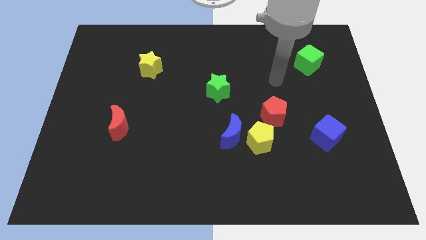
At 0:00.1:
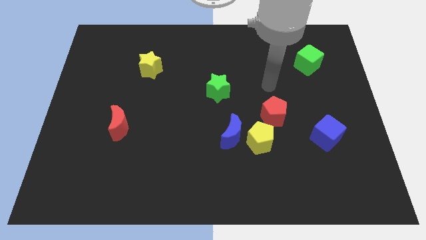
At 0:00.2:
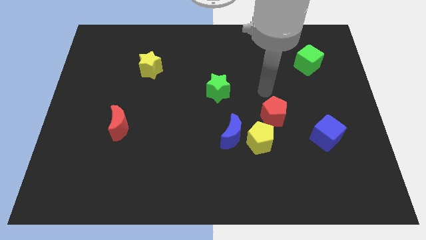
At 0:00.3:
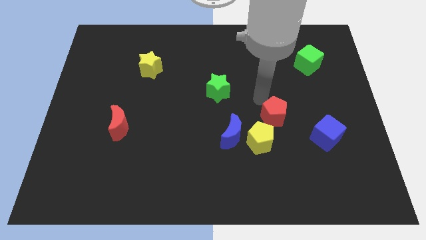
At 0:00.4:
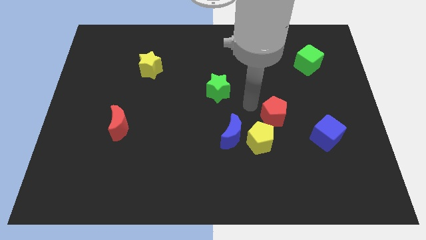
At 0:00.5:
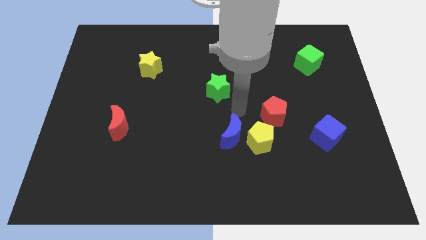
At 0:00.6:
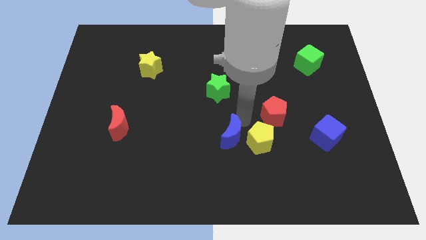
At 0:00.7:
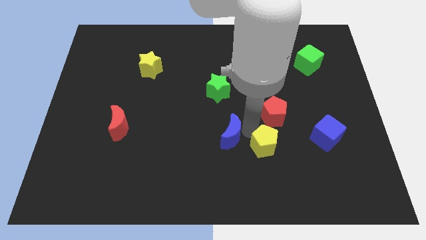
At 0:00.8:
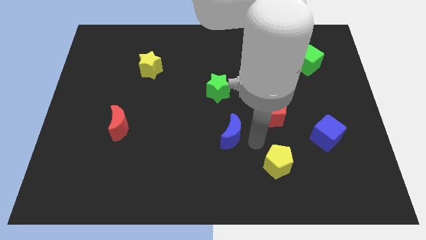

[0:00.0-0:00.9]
separate the blue moon from the yellow pentagon

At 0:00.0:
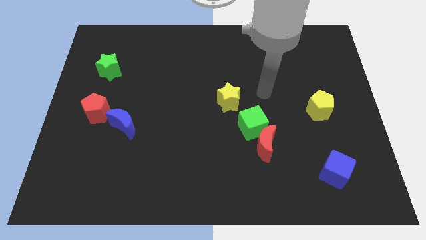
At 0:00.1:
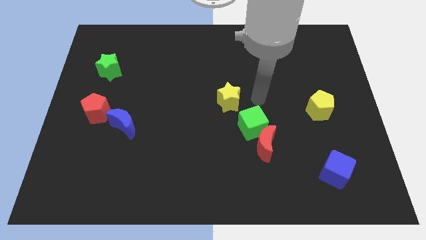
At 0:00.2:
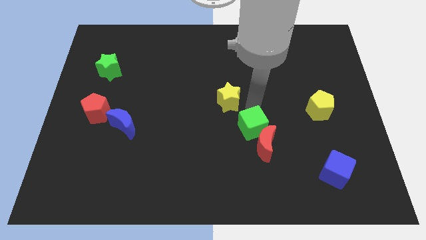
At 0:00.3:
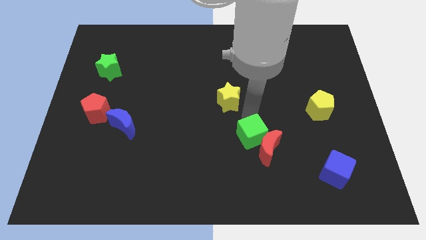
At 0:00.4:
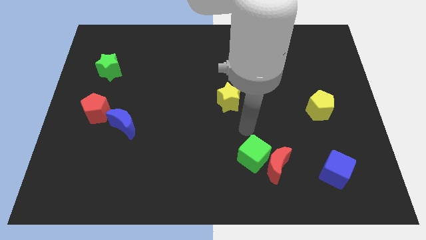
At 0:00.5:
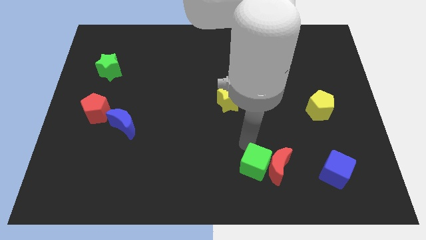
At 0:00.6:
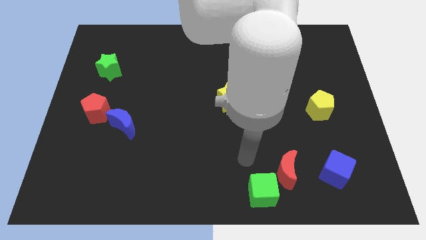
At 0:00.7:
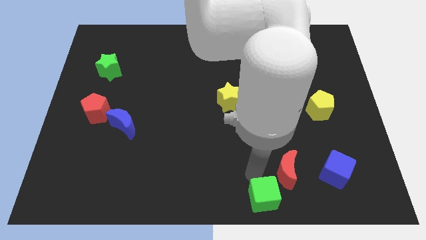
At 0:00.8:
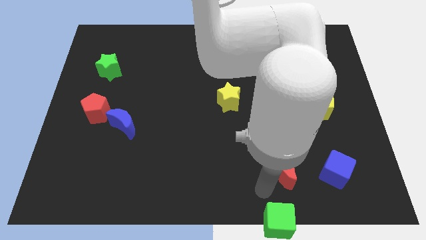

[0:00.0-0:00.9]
move the red moon away from the green cube

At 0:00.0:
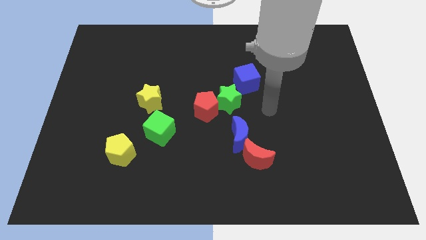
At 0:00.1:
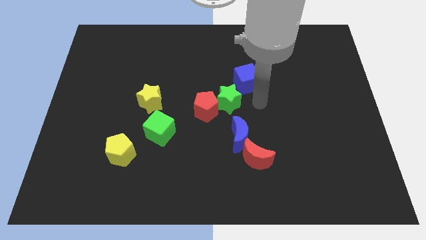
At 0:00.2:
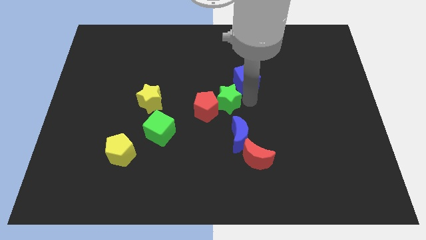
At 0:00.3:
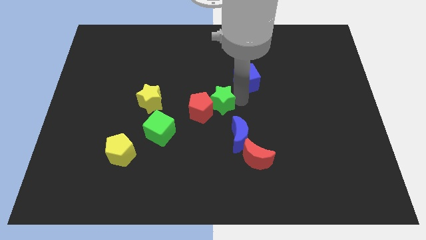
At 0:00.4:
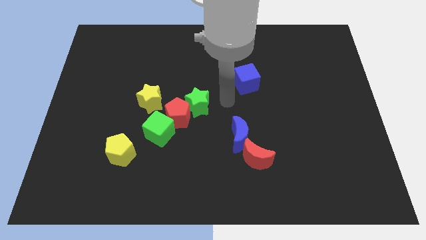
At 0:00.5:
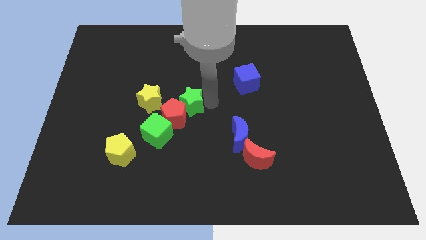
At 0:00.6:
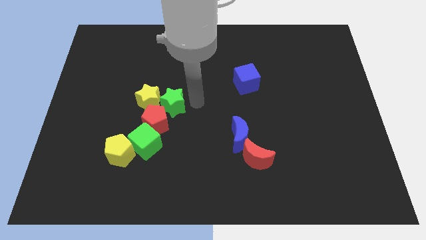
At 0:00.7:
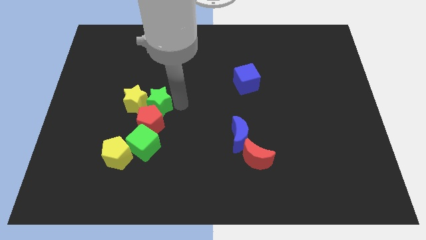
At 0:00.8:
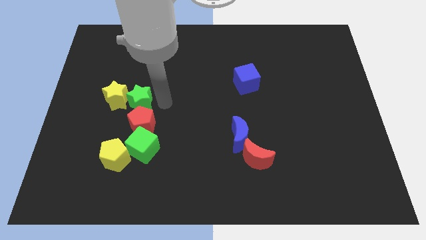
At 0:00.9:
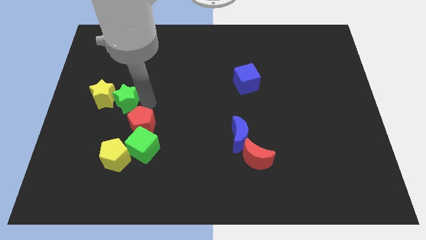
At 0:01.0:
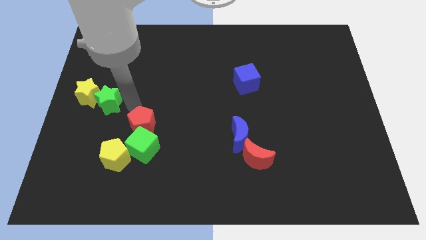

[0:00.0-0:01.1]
pull the red pentagon apart from the green star

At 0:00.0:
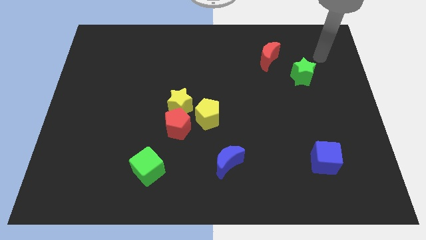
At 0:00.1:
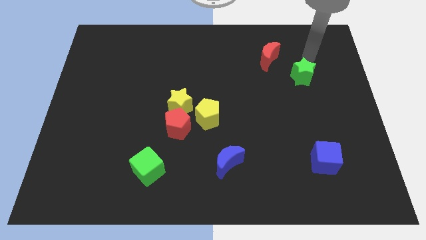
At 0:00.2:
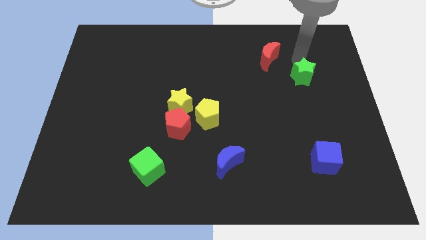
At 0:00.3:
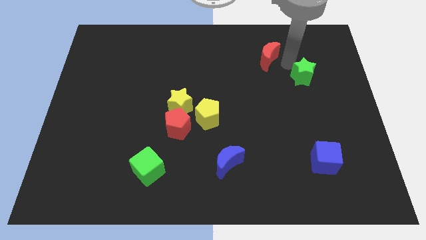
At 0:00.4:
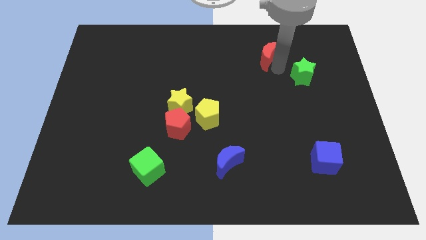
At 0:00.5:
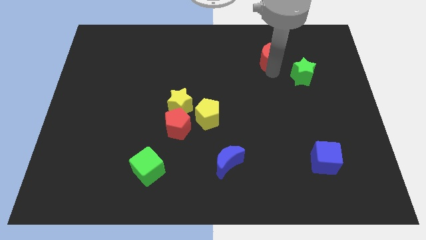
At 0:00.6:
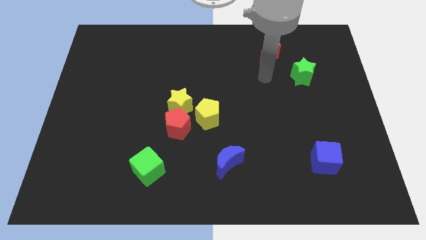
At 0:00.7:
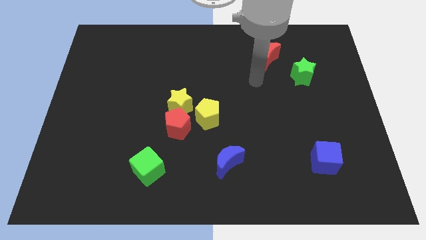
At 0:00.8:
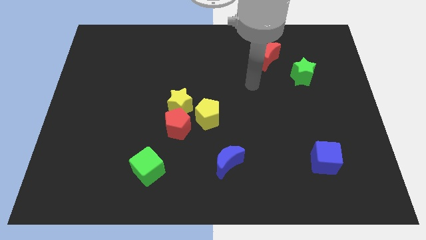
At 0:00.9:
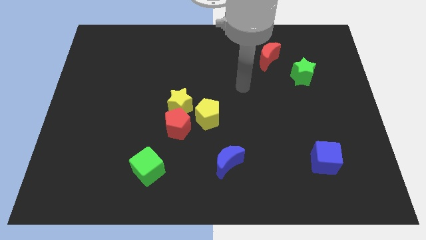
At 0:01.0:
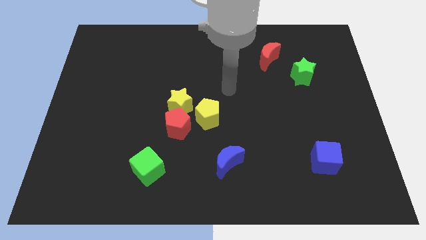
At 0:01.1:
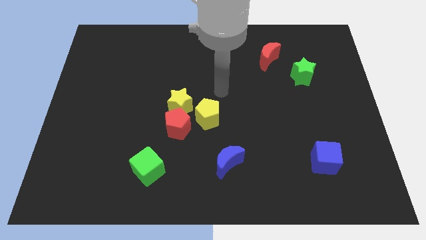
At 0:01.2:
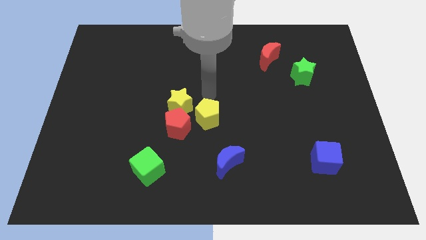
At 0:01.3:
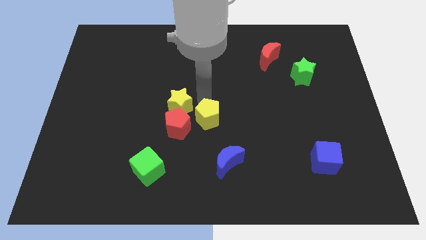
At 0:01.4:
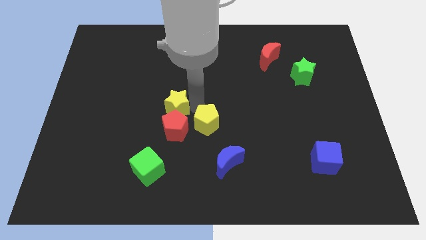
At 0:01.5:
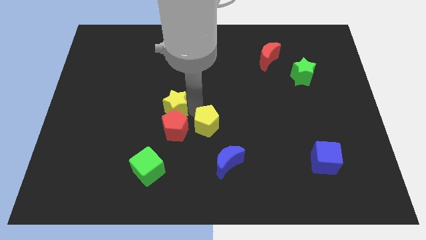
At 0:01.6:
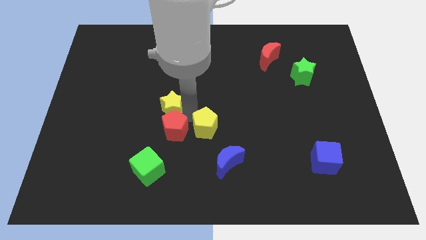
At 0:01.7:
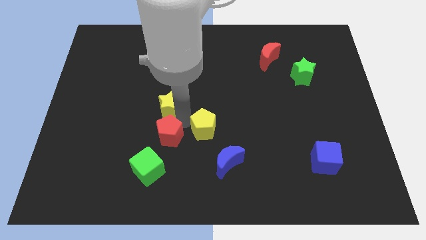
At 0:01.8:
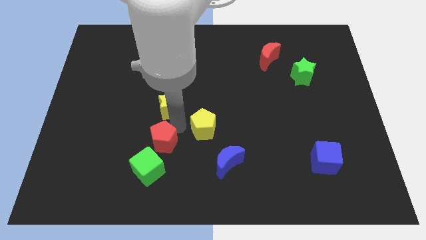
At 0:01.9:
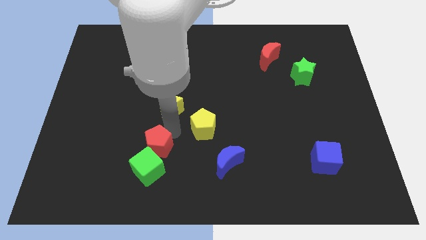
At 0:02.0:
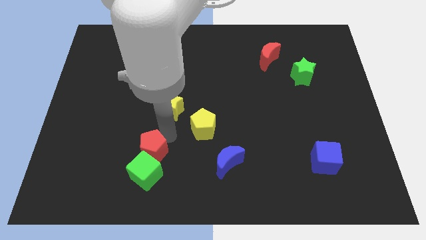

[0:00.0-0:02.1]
separate the red pentagon from the yellow star and yellow pentagon

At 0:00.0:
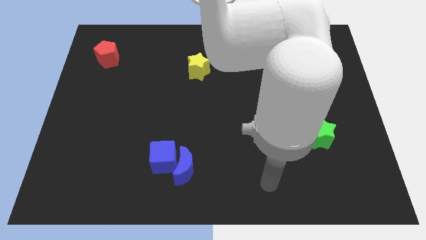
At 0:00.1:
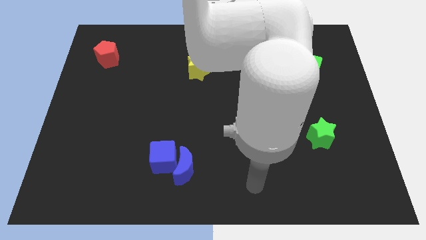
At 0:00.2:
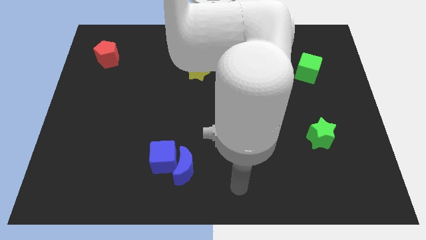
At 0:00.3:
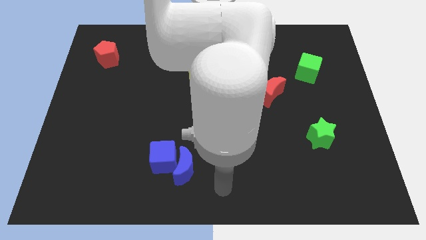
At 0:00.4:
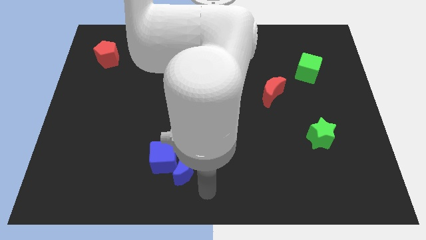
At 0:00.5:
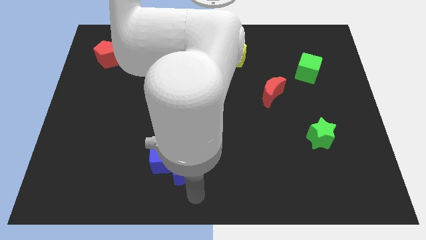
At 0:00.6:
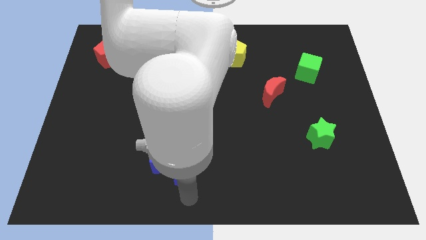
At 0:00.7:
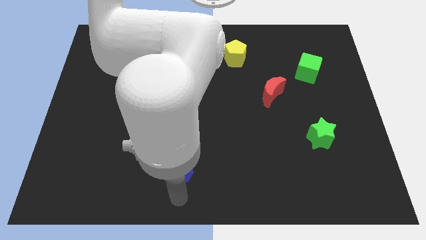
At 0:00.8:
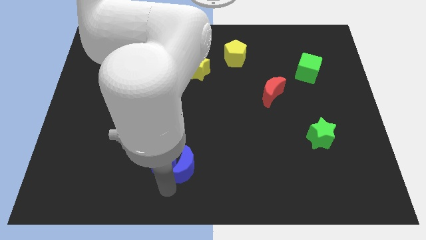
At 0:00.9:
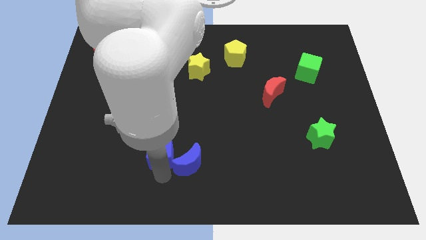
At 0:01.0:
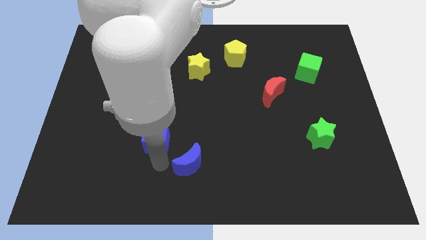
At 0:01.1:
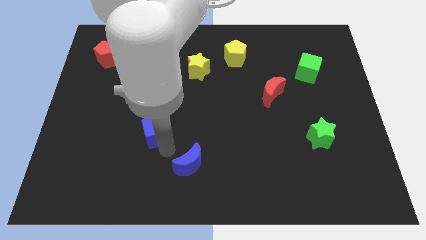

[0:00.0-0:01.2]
separate the blue moon from the blue cube

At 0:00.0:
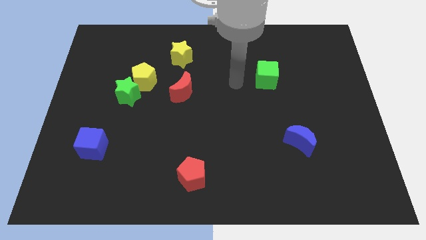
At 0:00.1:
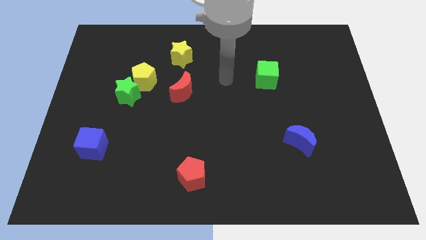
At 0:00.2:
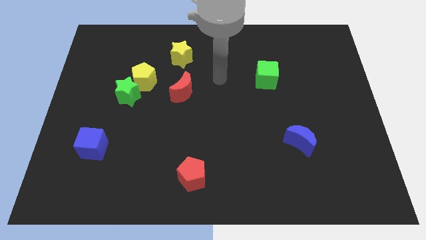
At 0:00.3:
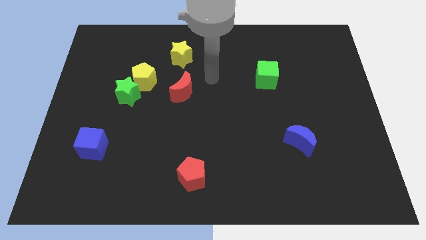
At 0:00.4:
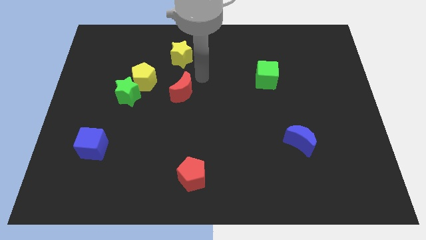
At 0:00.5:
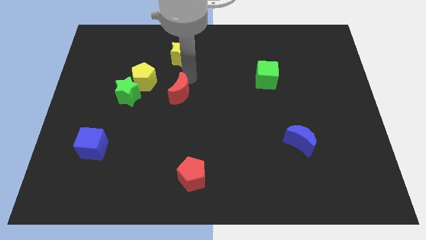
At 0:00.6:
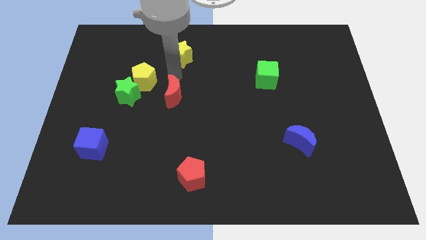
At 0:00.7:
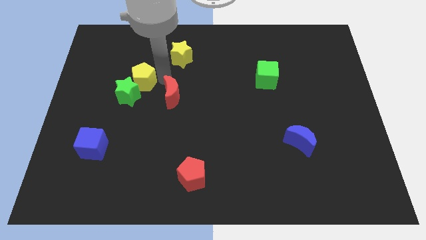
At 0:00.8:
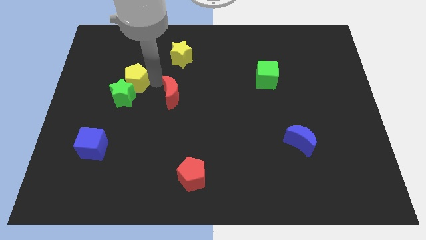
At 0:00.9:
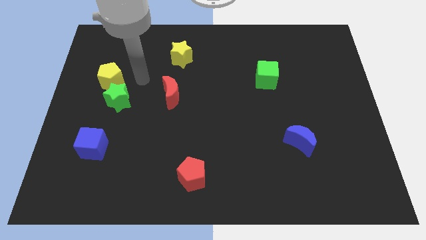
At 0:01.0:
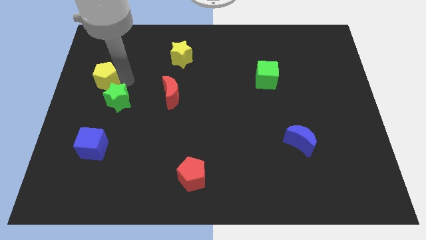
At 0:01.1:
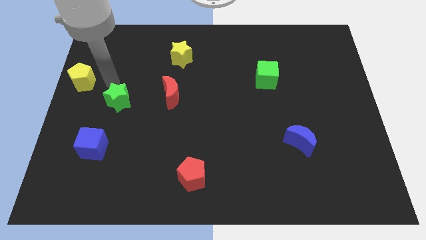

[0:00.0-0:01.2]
pull the green star apart from the yellow pentagon

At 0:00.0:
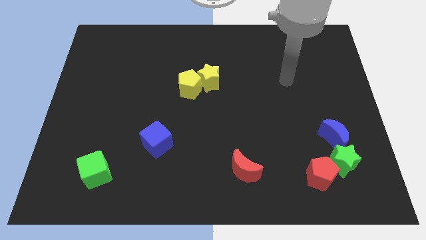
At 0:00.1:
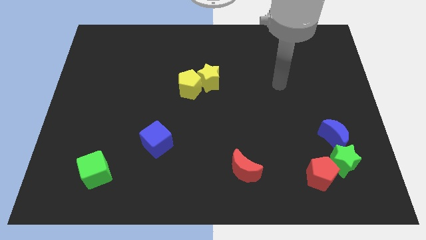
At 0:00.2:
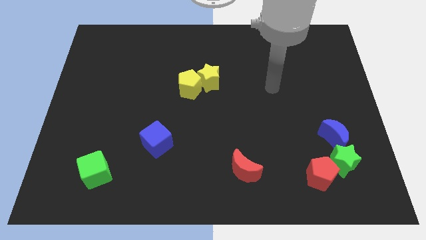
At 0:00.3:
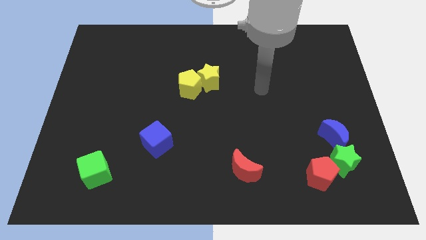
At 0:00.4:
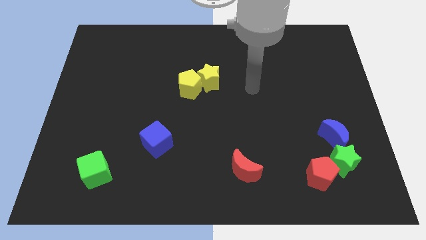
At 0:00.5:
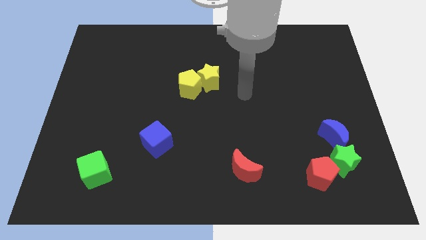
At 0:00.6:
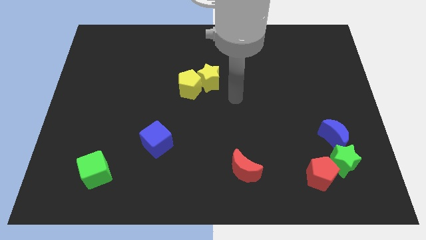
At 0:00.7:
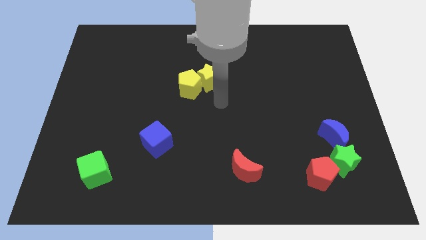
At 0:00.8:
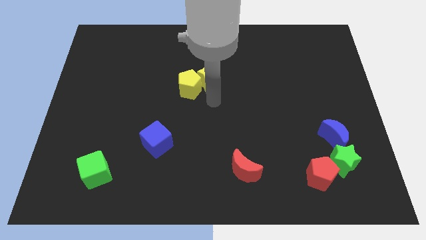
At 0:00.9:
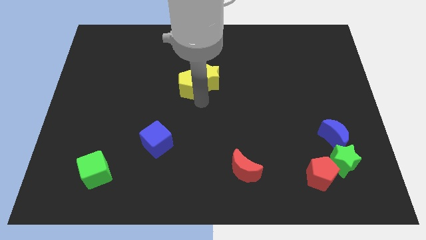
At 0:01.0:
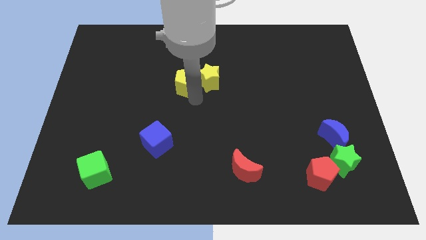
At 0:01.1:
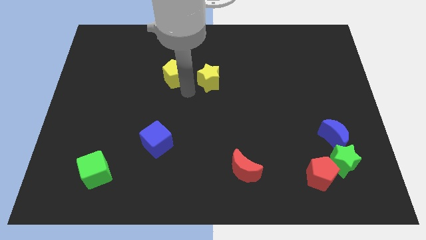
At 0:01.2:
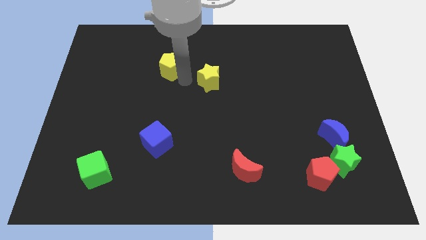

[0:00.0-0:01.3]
move the yellow star away from the yellow pentagon

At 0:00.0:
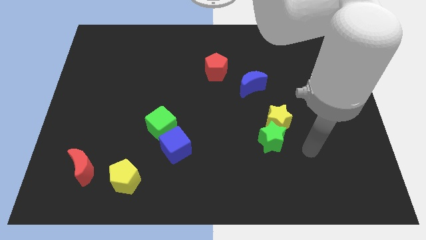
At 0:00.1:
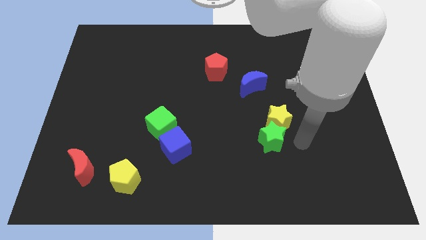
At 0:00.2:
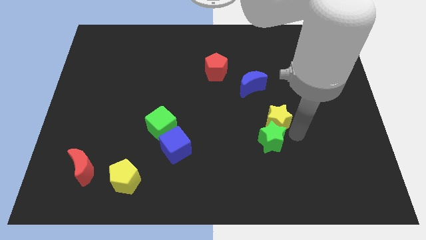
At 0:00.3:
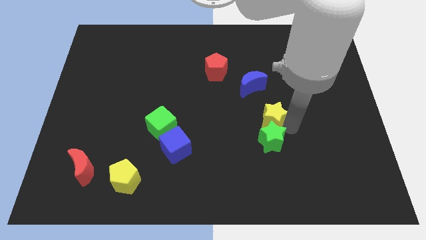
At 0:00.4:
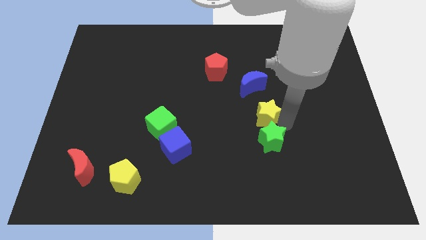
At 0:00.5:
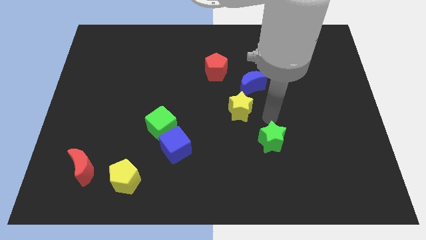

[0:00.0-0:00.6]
pull the green star apart from the yellow star
